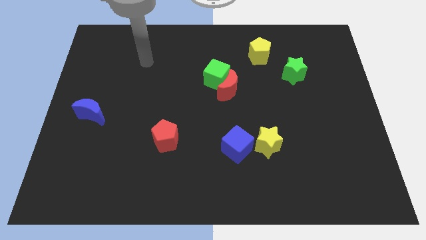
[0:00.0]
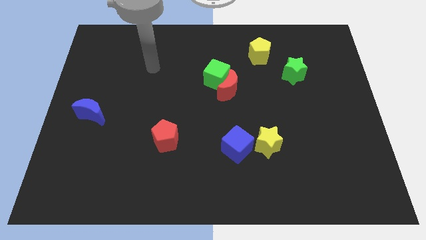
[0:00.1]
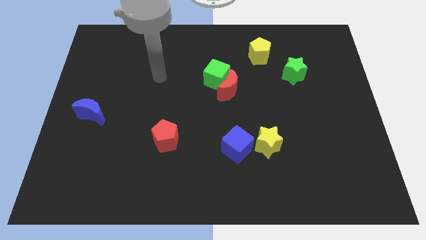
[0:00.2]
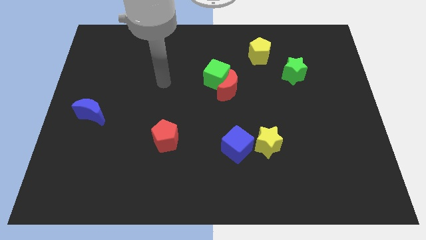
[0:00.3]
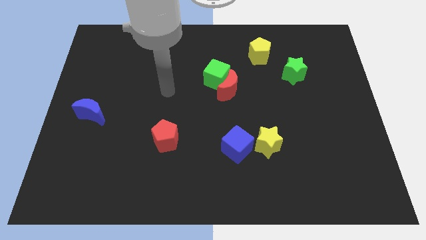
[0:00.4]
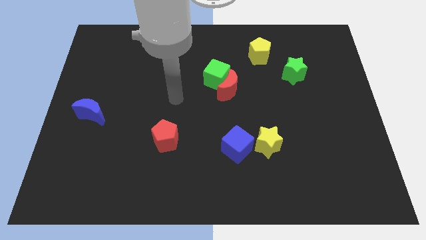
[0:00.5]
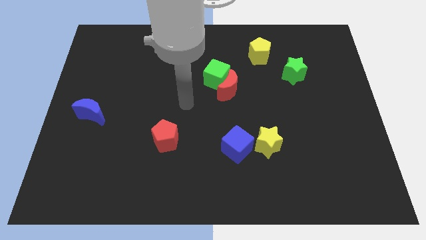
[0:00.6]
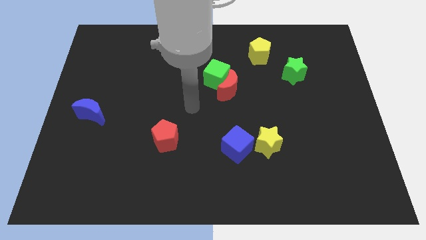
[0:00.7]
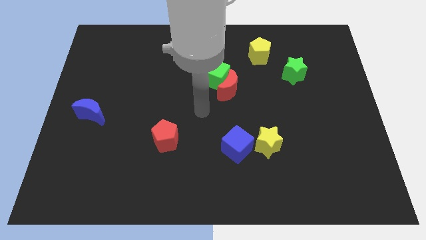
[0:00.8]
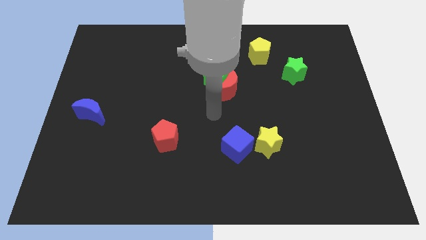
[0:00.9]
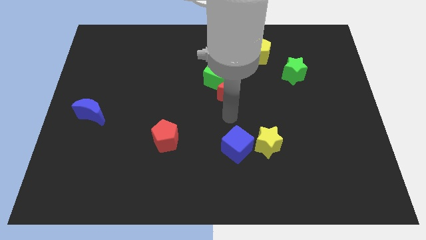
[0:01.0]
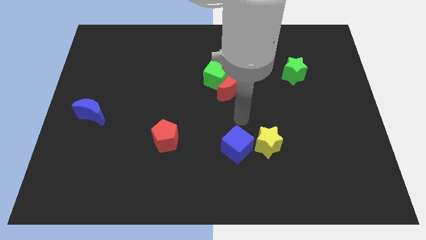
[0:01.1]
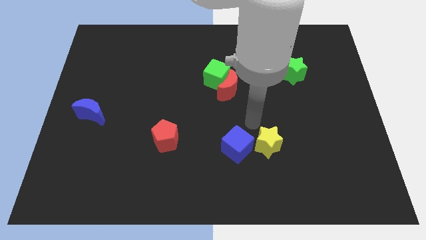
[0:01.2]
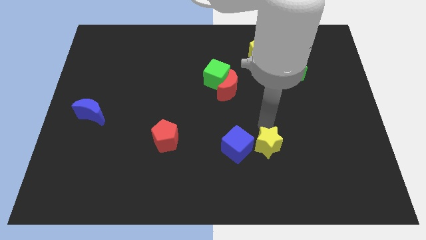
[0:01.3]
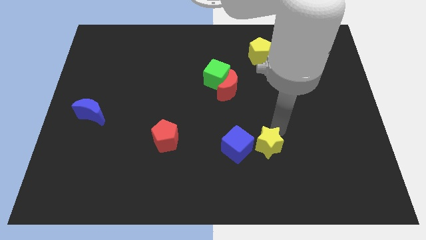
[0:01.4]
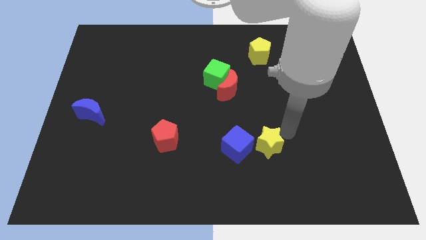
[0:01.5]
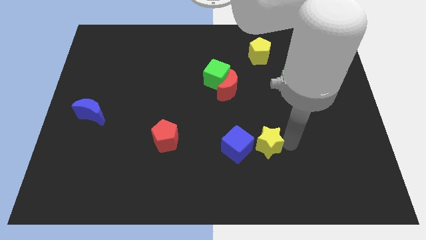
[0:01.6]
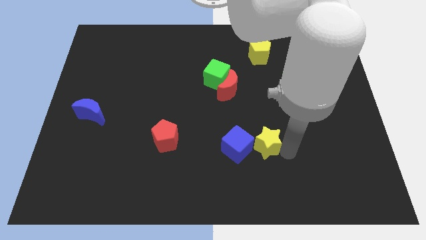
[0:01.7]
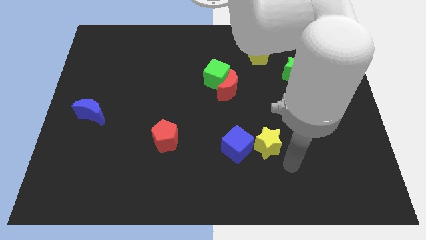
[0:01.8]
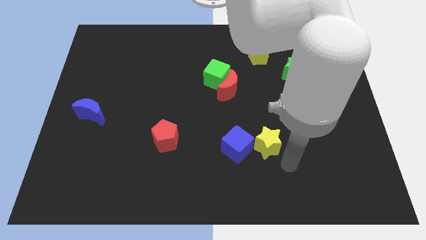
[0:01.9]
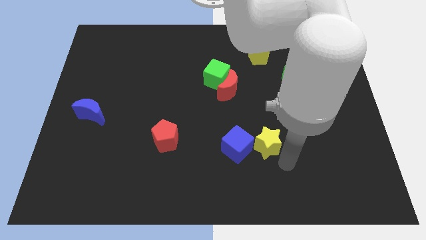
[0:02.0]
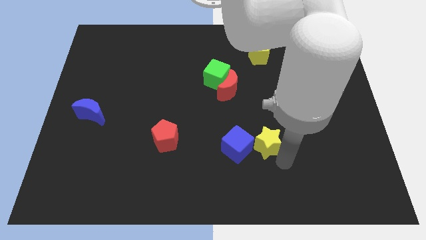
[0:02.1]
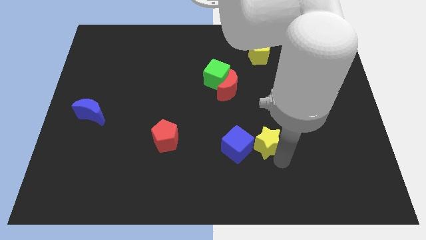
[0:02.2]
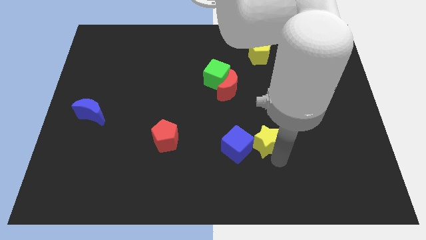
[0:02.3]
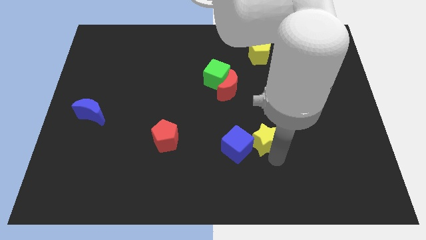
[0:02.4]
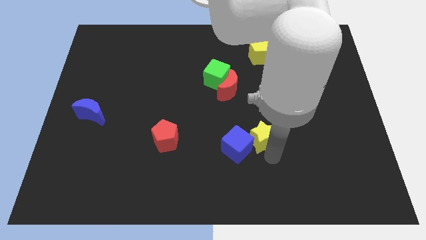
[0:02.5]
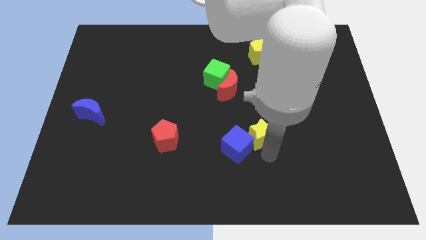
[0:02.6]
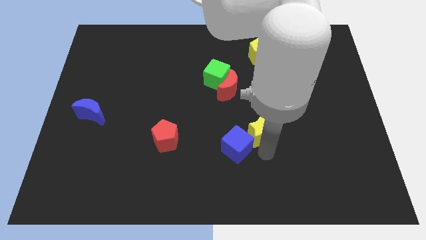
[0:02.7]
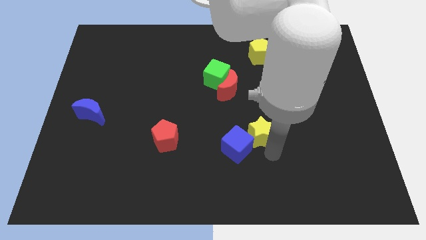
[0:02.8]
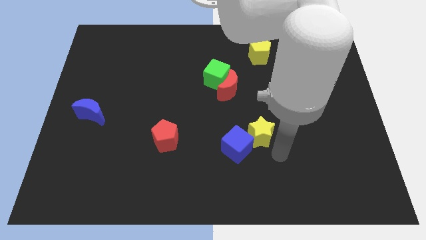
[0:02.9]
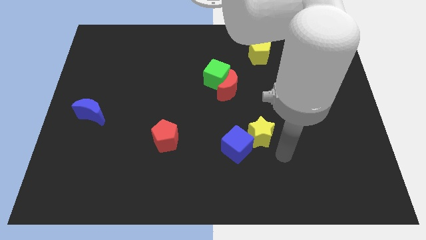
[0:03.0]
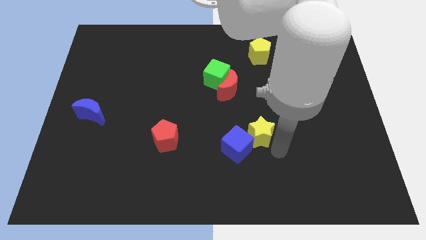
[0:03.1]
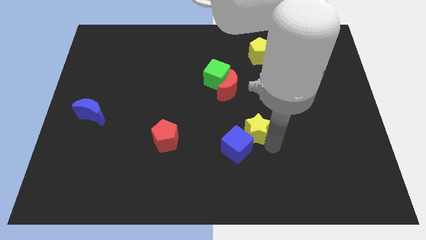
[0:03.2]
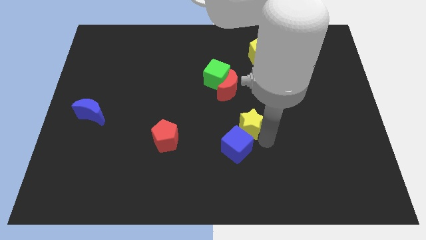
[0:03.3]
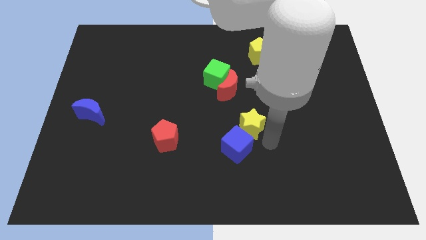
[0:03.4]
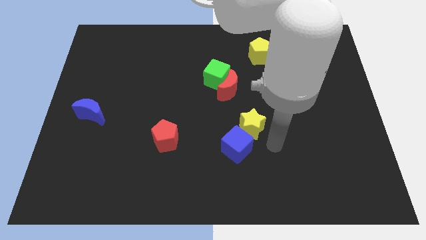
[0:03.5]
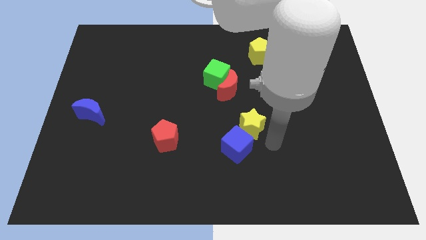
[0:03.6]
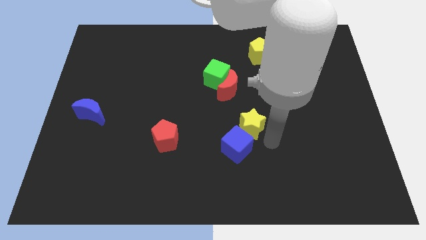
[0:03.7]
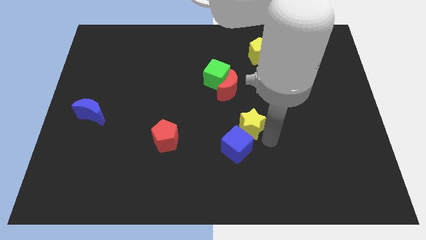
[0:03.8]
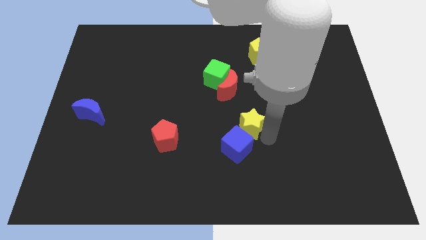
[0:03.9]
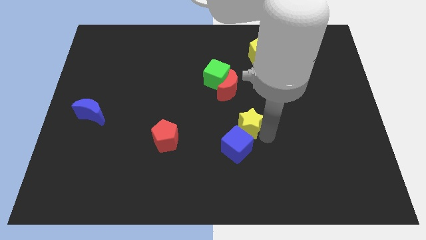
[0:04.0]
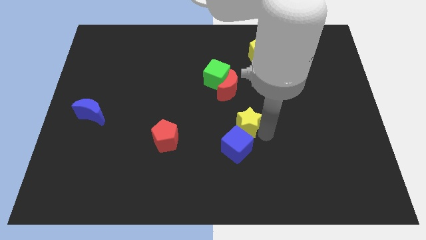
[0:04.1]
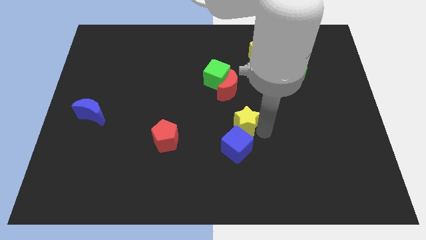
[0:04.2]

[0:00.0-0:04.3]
slide the yellow star somewhat up and to the left

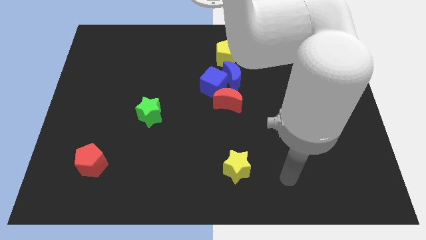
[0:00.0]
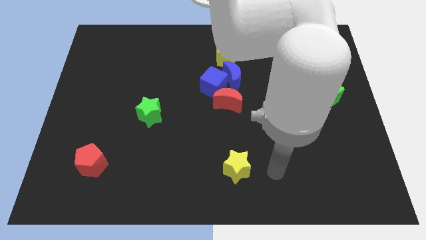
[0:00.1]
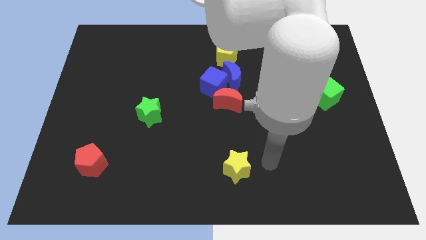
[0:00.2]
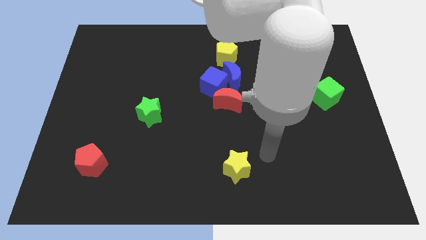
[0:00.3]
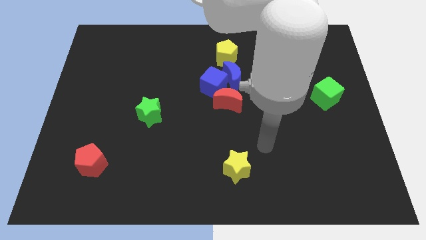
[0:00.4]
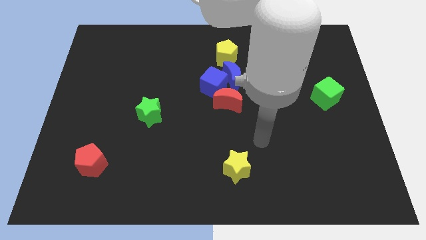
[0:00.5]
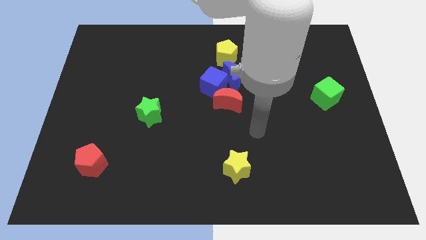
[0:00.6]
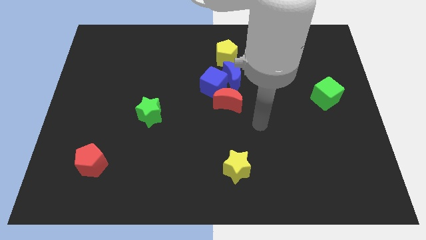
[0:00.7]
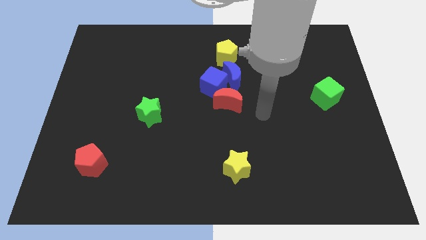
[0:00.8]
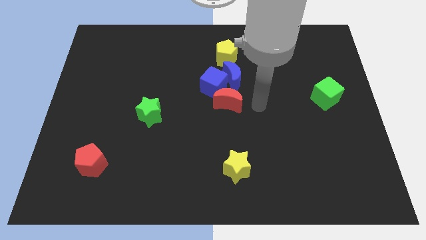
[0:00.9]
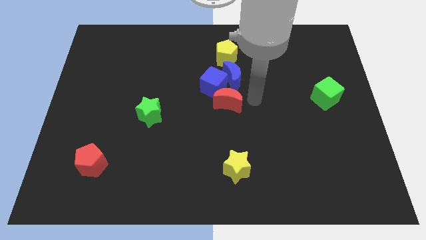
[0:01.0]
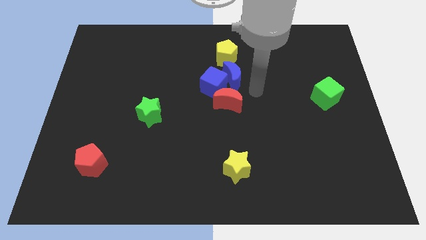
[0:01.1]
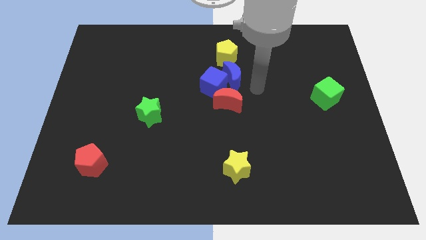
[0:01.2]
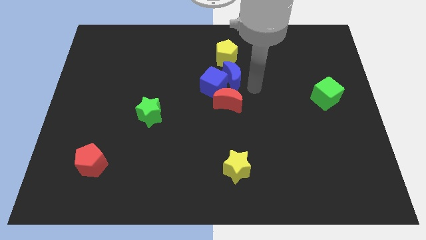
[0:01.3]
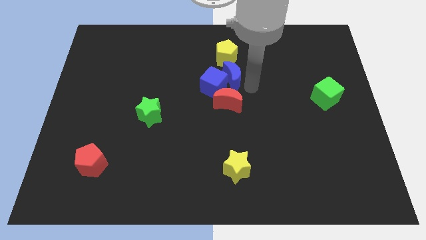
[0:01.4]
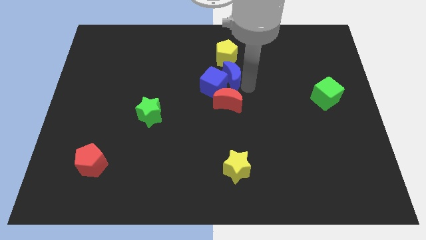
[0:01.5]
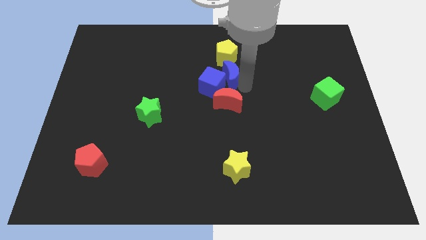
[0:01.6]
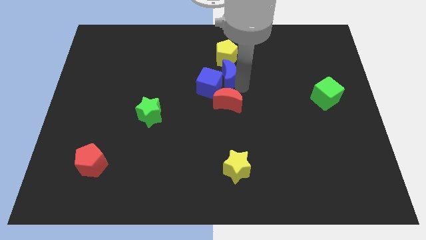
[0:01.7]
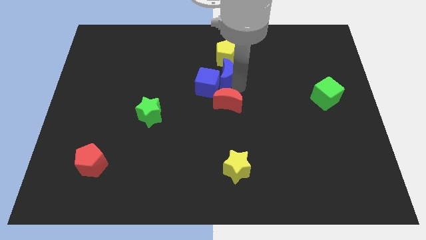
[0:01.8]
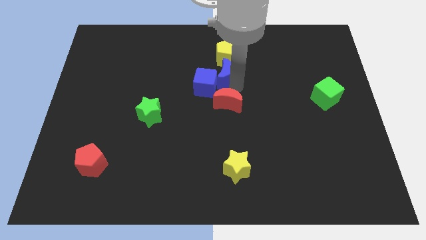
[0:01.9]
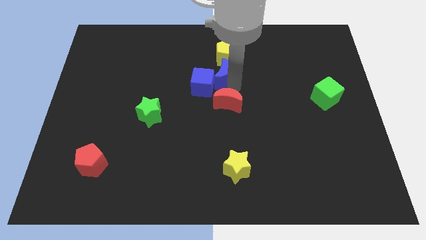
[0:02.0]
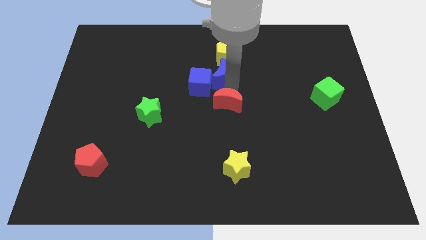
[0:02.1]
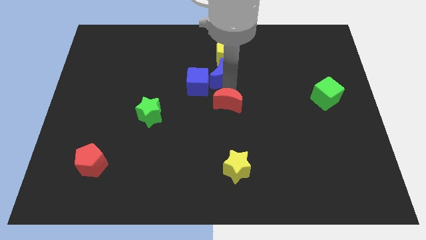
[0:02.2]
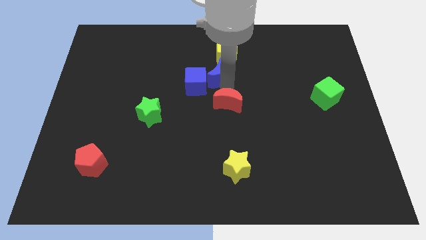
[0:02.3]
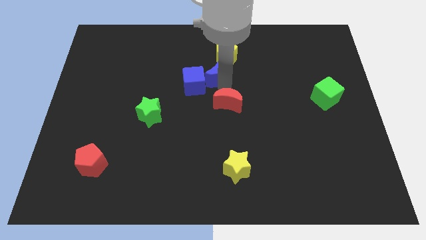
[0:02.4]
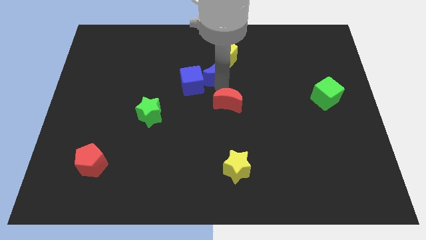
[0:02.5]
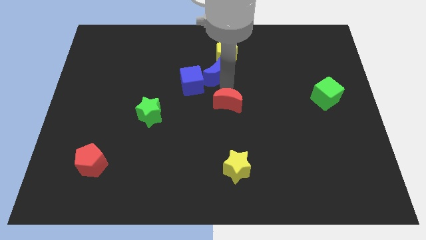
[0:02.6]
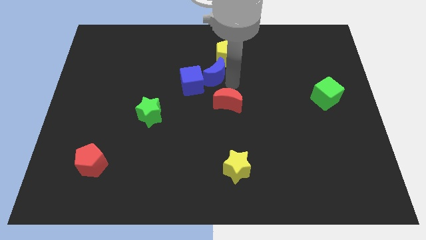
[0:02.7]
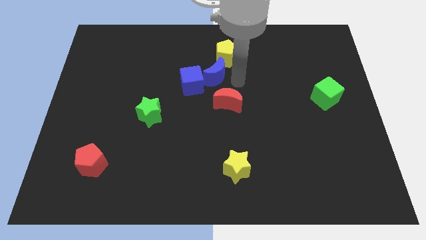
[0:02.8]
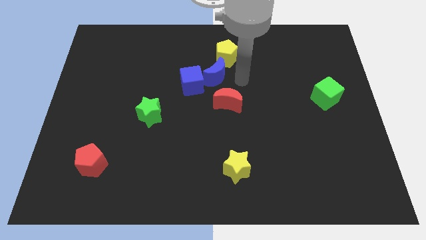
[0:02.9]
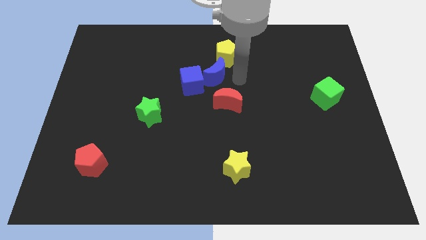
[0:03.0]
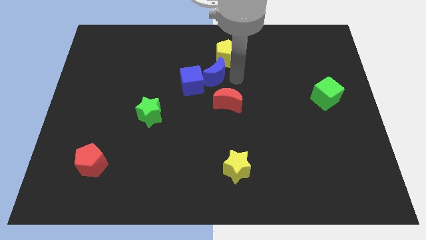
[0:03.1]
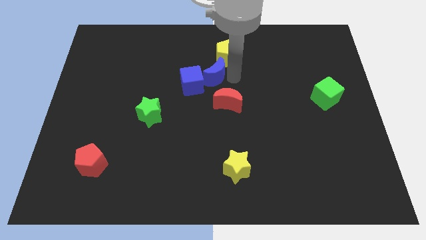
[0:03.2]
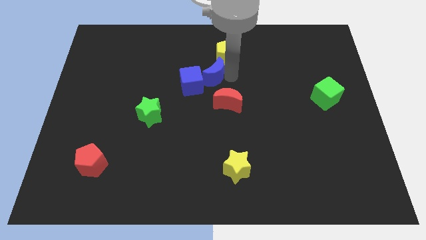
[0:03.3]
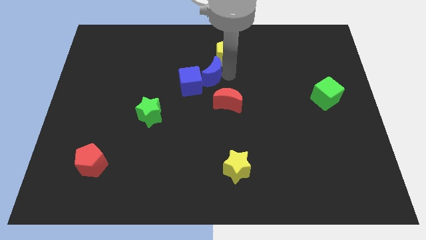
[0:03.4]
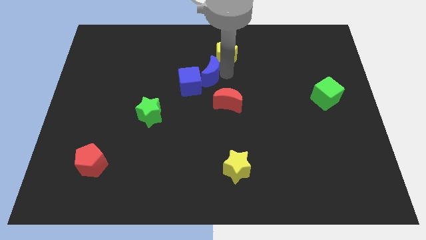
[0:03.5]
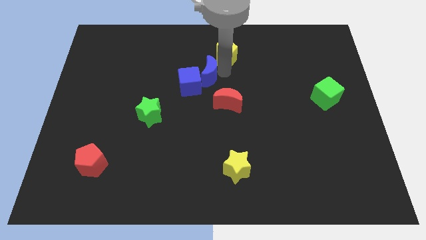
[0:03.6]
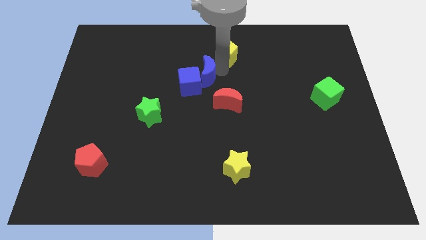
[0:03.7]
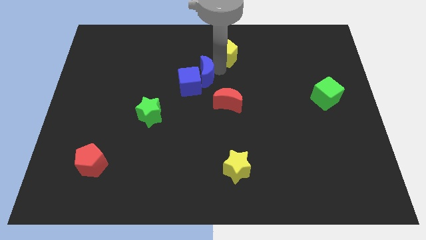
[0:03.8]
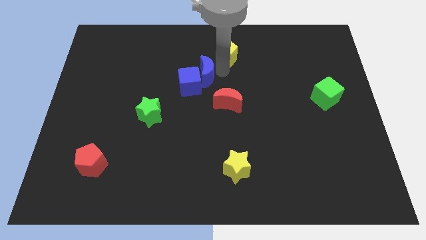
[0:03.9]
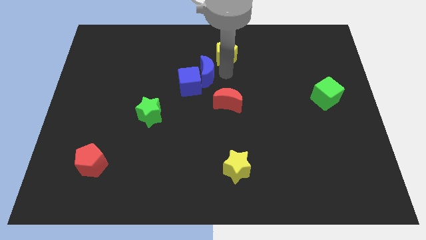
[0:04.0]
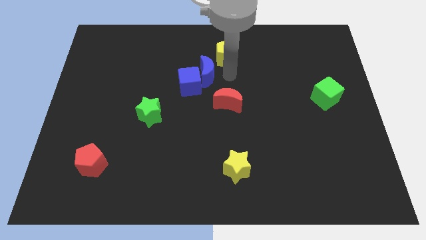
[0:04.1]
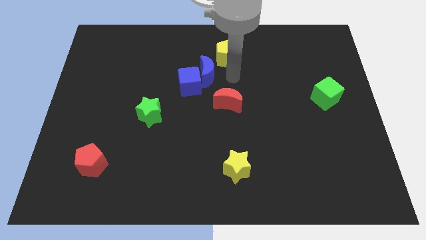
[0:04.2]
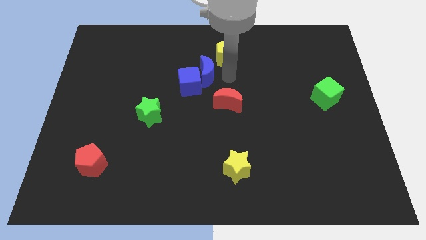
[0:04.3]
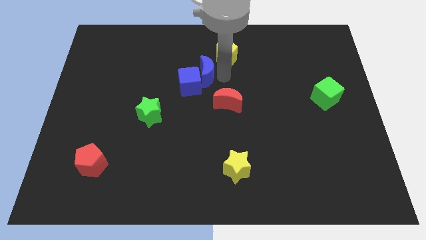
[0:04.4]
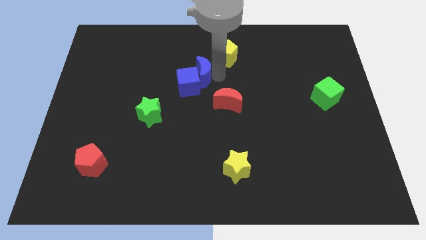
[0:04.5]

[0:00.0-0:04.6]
push the blue moon a little left
